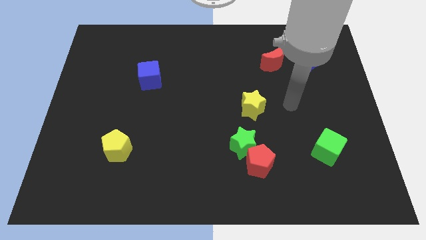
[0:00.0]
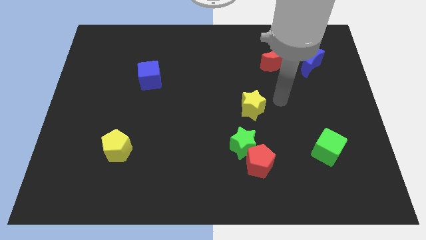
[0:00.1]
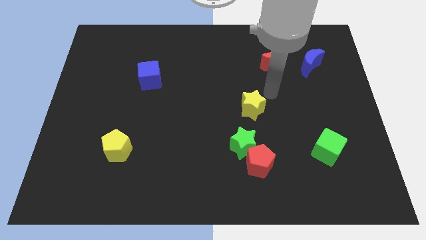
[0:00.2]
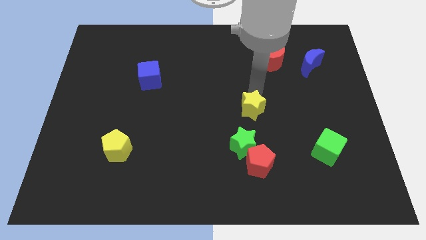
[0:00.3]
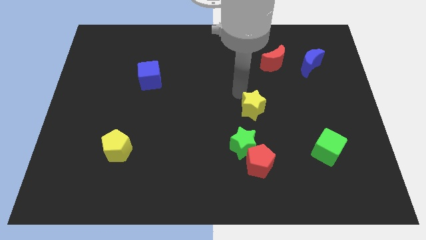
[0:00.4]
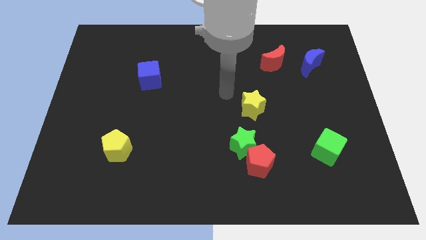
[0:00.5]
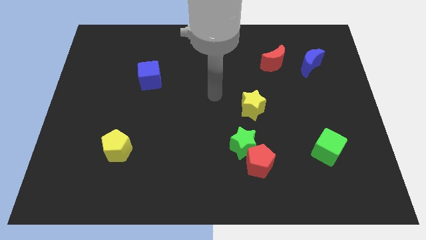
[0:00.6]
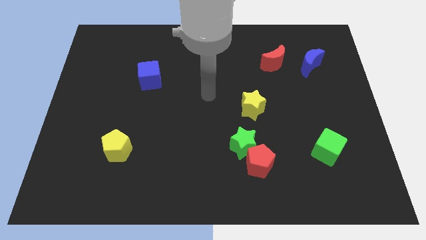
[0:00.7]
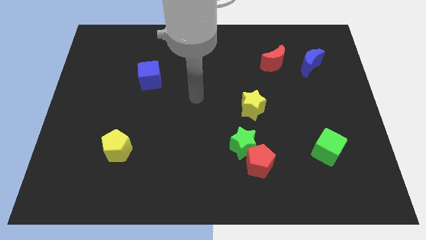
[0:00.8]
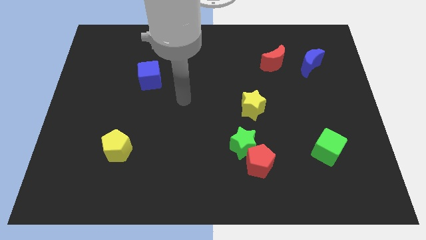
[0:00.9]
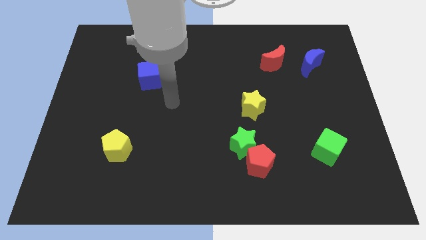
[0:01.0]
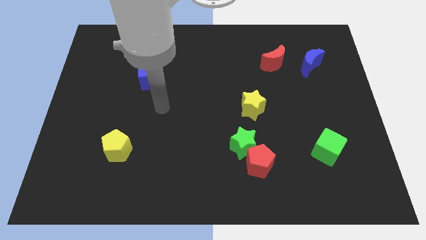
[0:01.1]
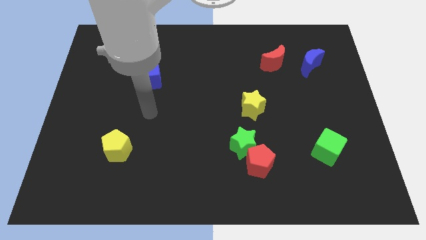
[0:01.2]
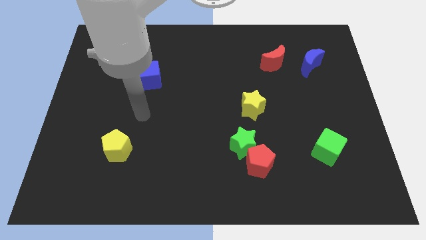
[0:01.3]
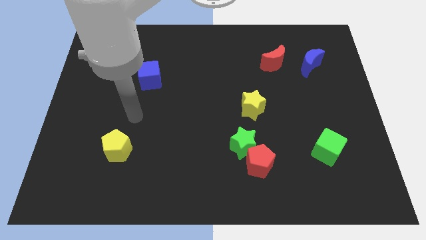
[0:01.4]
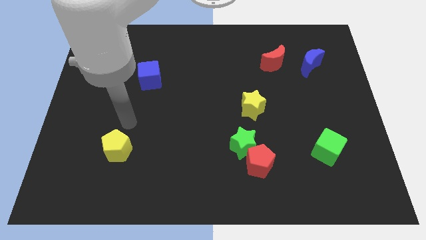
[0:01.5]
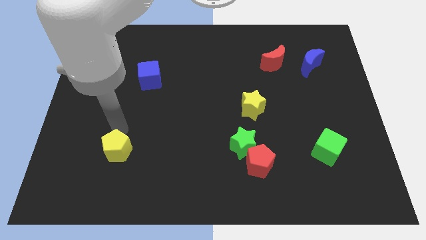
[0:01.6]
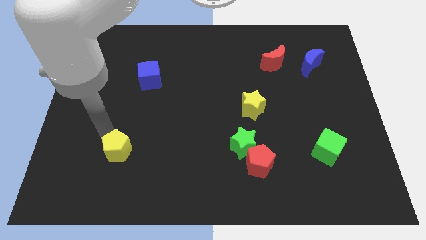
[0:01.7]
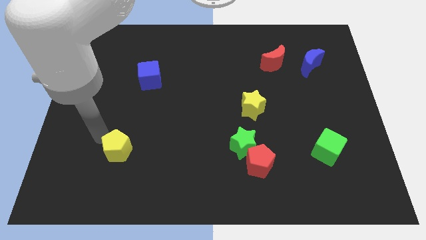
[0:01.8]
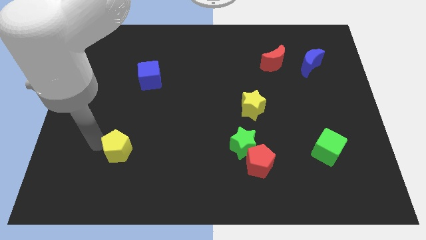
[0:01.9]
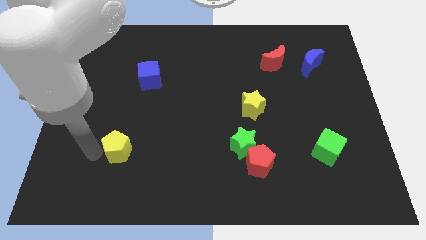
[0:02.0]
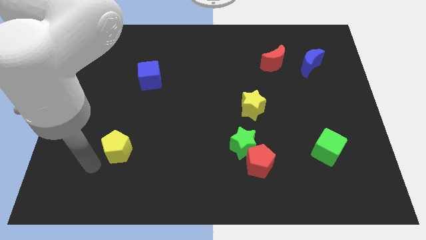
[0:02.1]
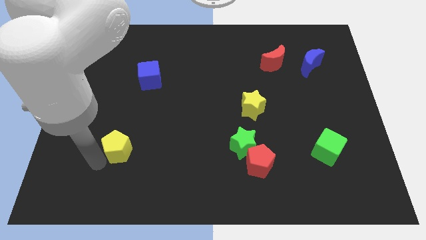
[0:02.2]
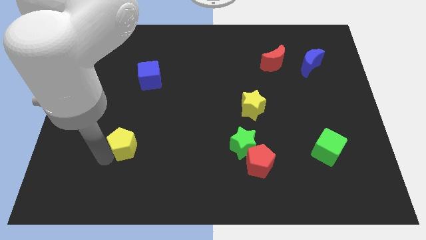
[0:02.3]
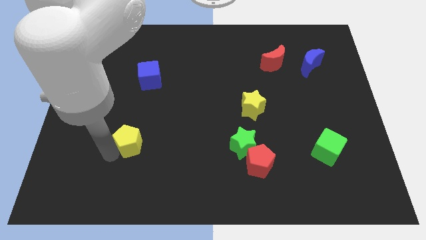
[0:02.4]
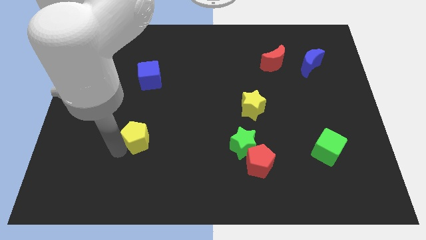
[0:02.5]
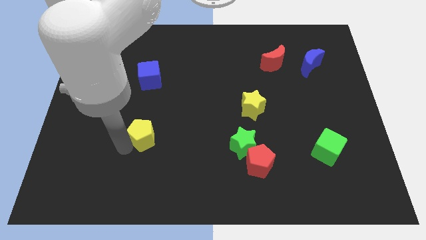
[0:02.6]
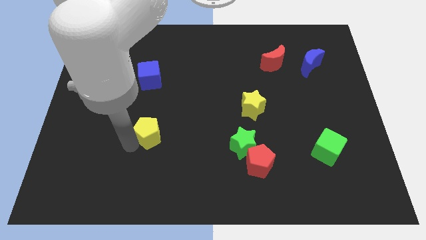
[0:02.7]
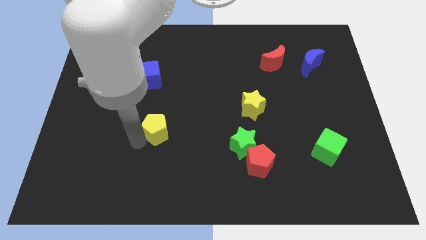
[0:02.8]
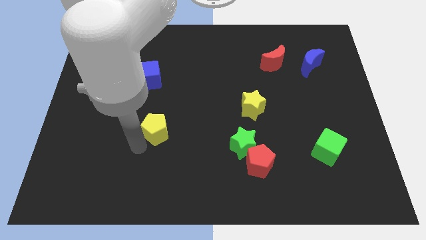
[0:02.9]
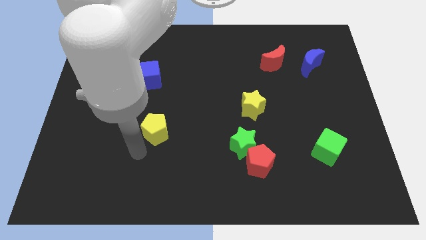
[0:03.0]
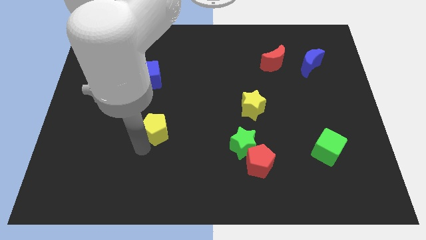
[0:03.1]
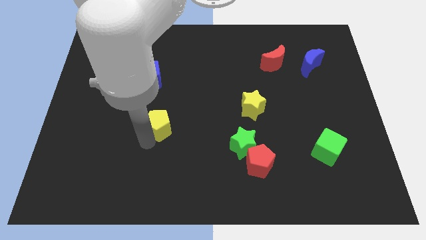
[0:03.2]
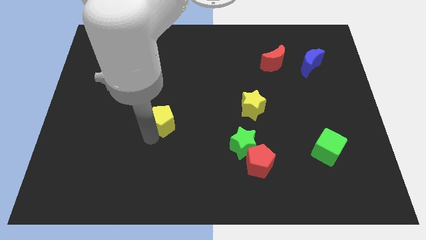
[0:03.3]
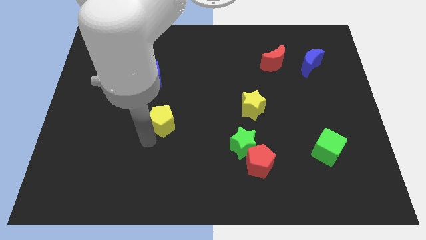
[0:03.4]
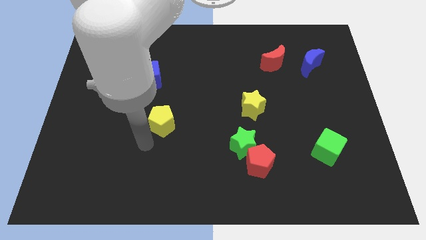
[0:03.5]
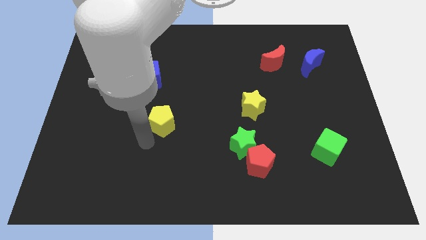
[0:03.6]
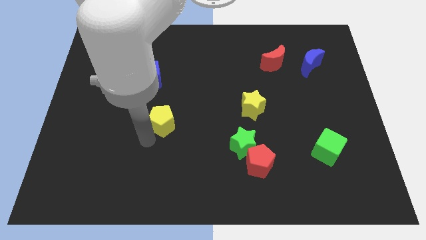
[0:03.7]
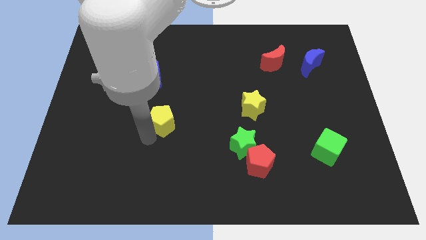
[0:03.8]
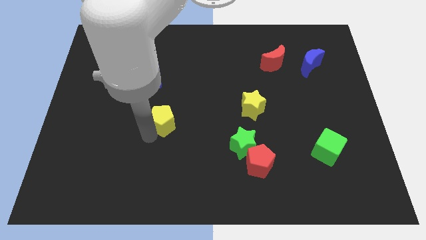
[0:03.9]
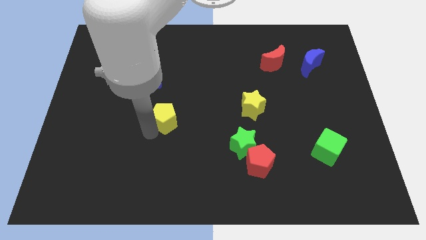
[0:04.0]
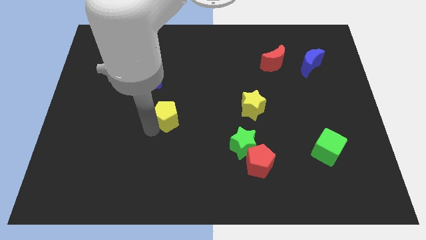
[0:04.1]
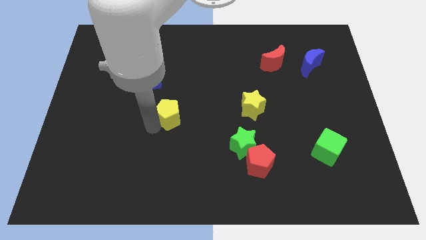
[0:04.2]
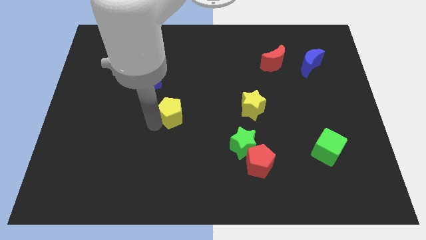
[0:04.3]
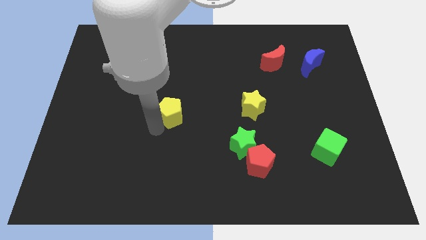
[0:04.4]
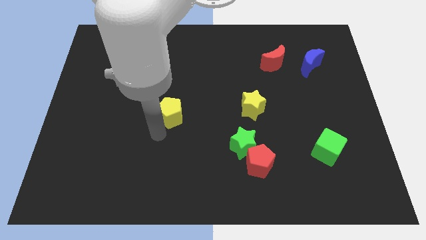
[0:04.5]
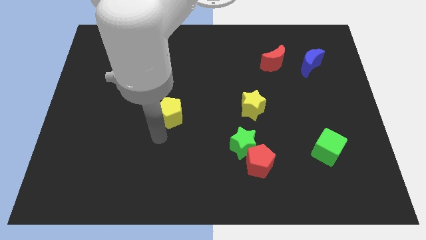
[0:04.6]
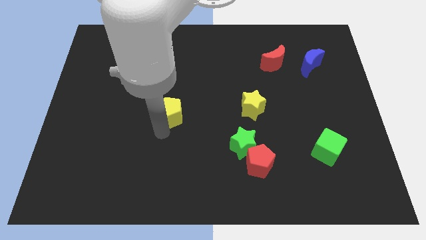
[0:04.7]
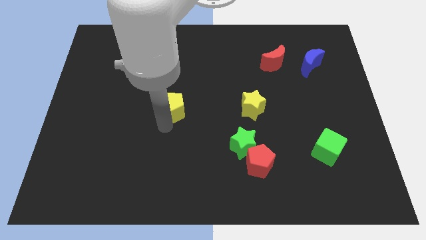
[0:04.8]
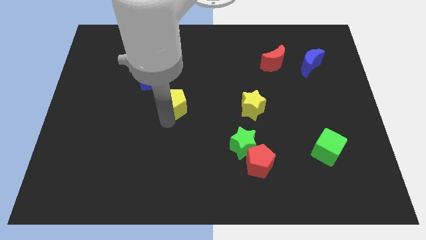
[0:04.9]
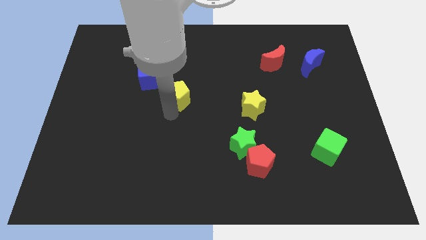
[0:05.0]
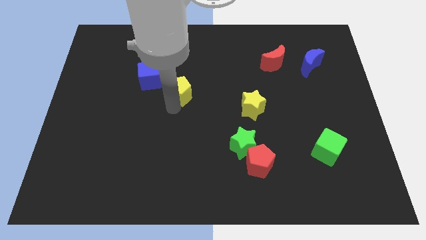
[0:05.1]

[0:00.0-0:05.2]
slide the yellow pentagon right of the blue cube

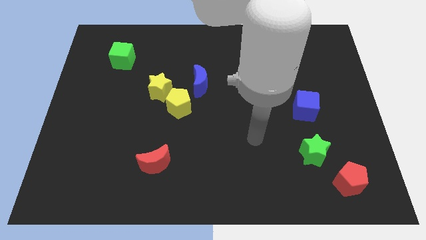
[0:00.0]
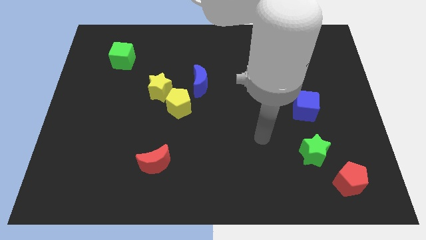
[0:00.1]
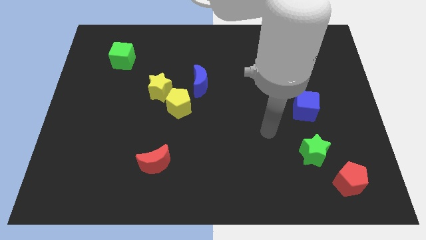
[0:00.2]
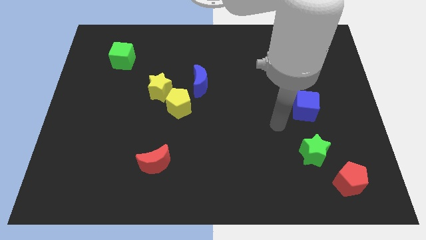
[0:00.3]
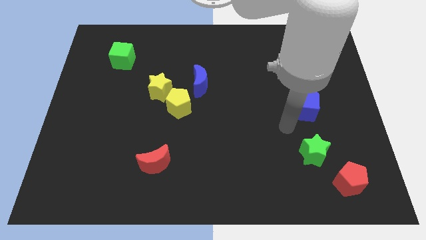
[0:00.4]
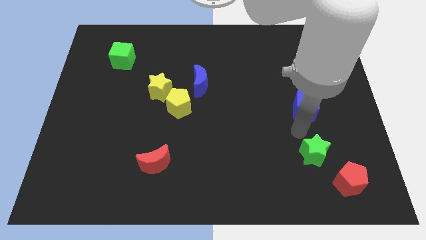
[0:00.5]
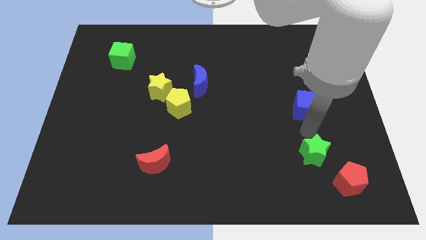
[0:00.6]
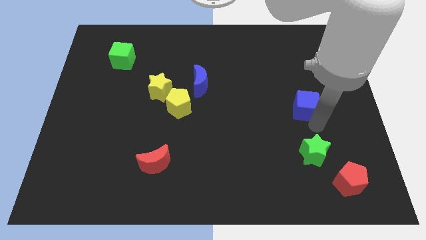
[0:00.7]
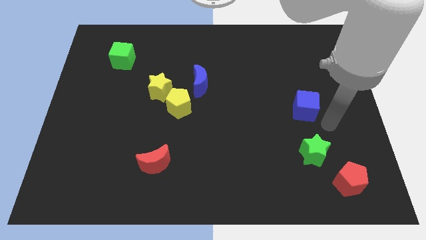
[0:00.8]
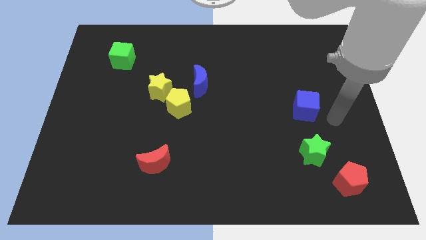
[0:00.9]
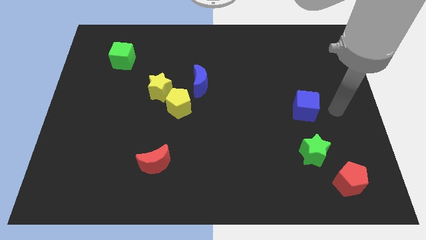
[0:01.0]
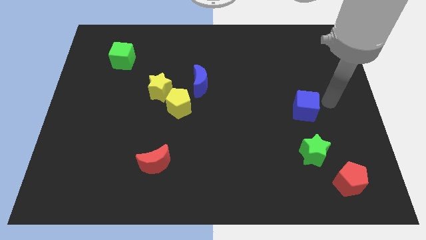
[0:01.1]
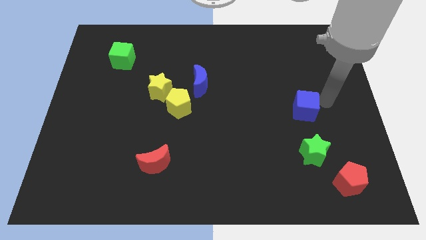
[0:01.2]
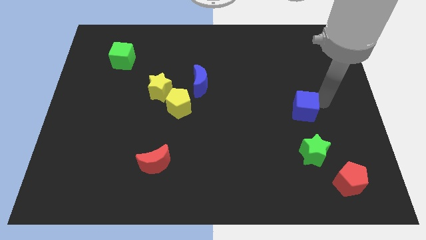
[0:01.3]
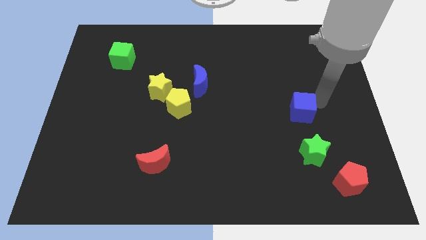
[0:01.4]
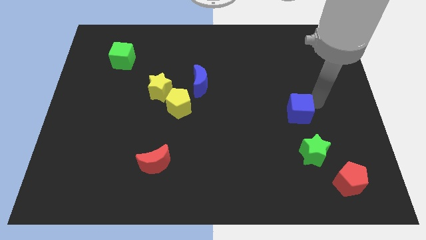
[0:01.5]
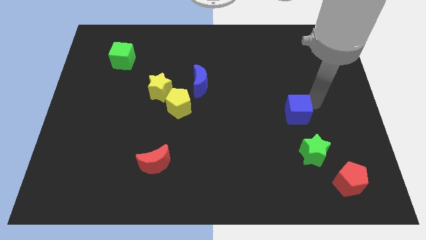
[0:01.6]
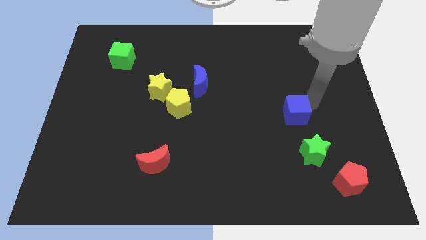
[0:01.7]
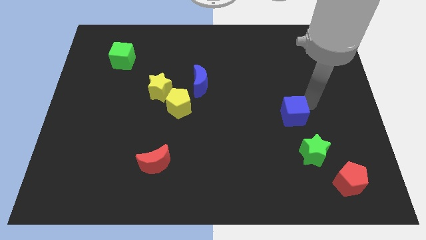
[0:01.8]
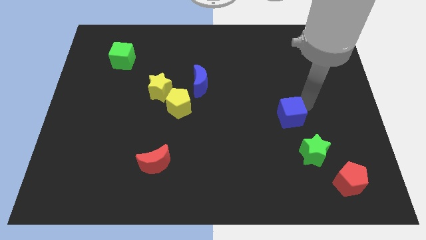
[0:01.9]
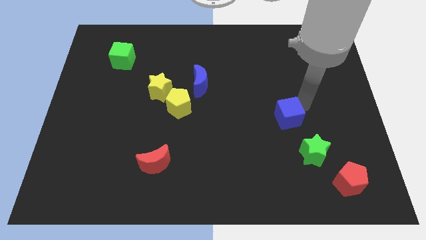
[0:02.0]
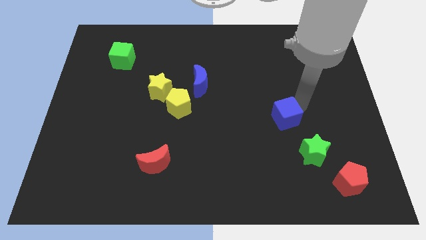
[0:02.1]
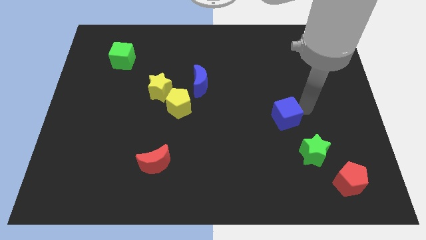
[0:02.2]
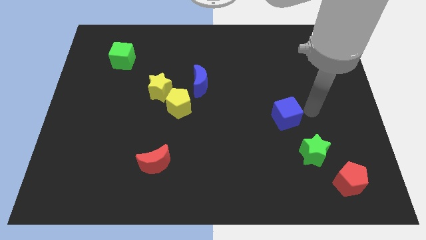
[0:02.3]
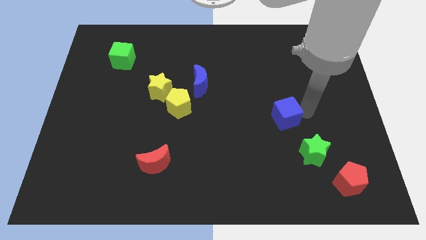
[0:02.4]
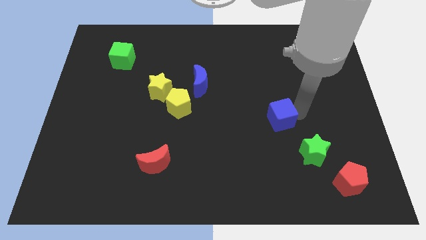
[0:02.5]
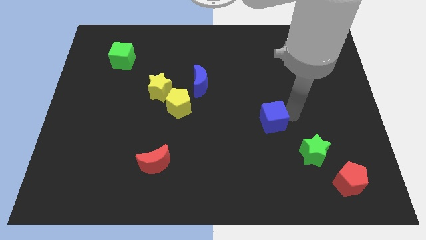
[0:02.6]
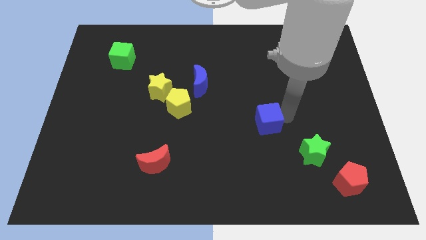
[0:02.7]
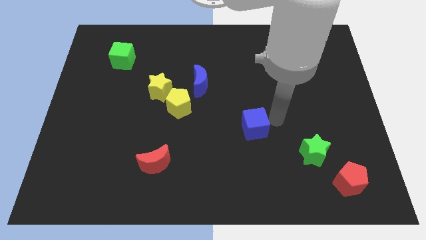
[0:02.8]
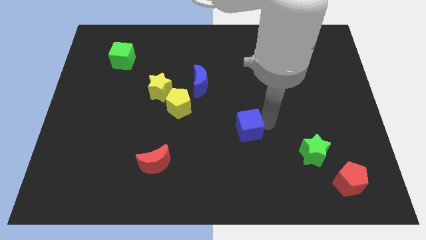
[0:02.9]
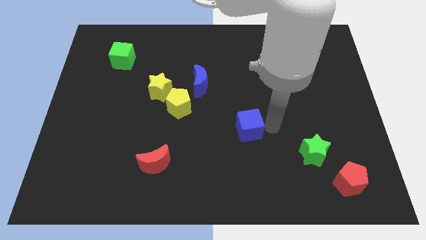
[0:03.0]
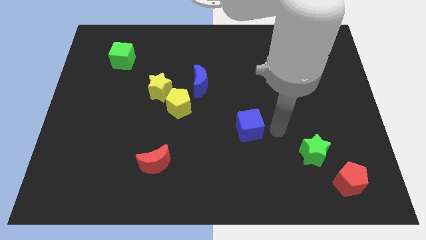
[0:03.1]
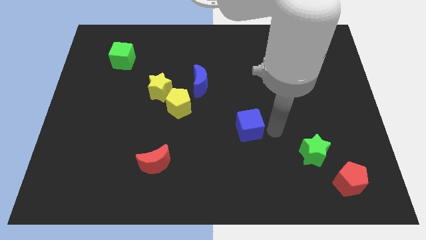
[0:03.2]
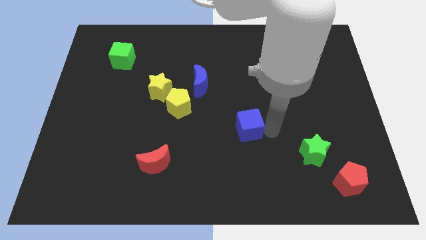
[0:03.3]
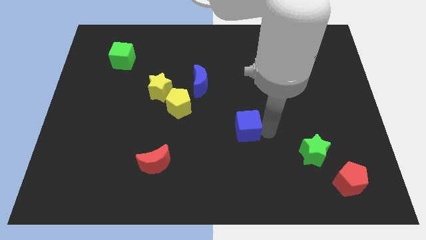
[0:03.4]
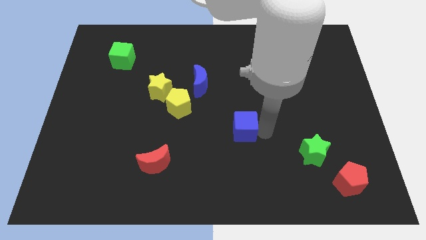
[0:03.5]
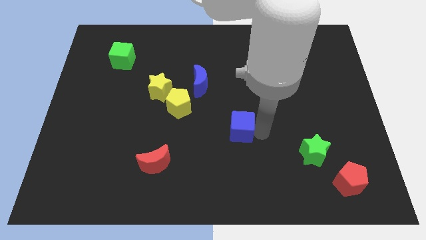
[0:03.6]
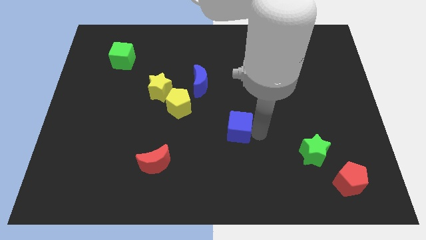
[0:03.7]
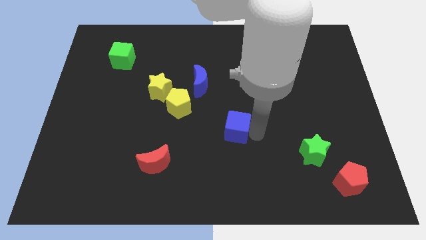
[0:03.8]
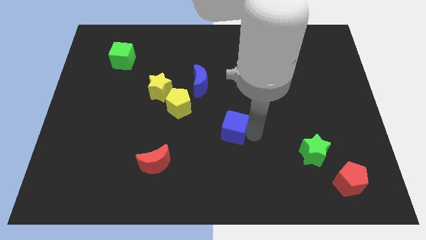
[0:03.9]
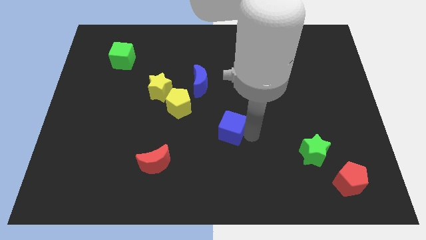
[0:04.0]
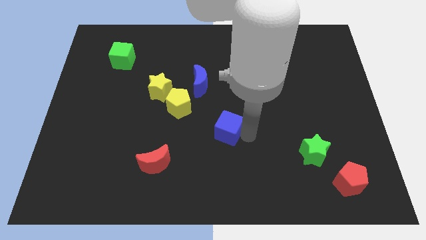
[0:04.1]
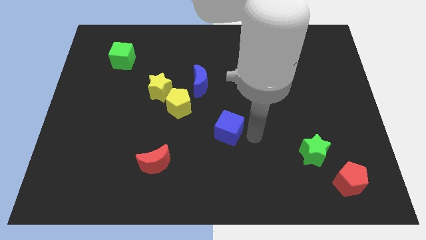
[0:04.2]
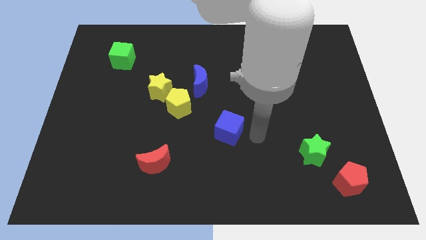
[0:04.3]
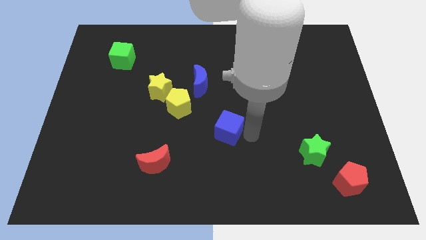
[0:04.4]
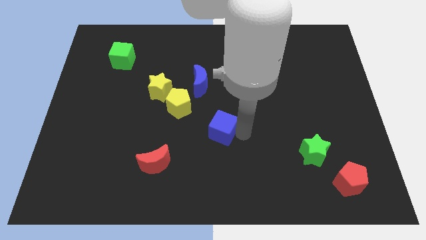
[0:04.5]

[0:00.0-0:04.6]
push the blue cube diagonally down and to the right of the yellow pentagon
